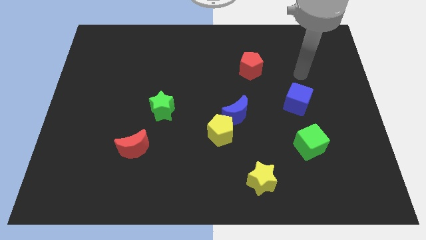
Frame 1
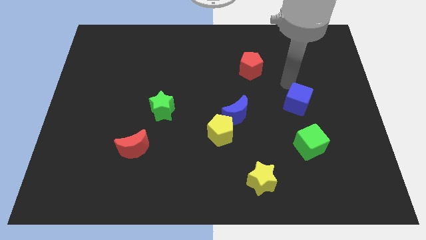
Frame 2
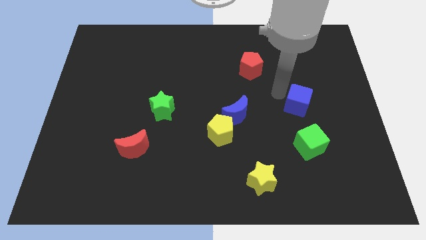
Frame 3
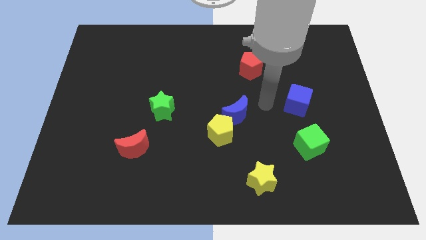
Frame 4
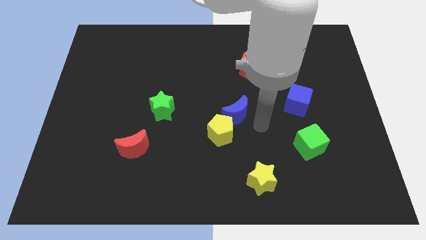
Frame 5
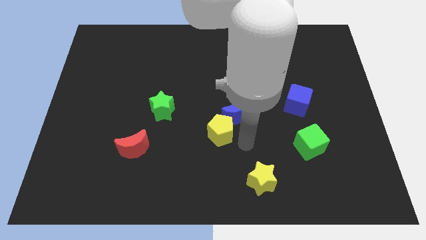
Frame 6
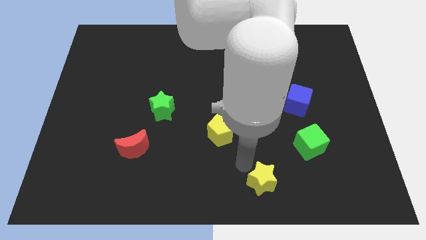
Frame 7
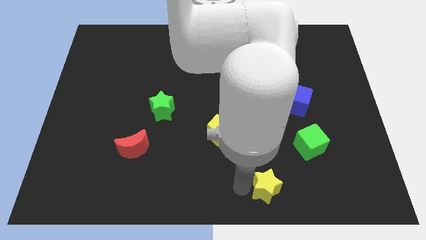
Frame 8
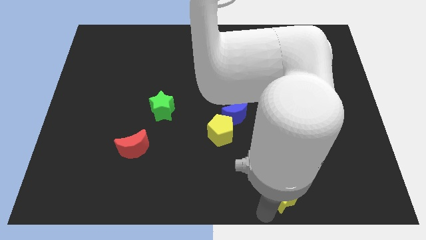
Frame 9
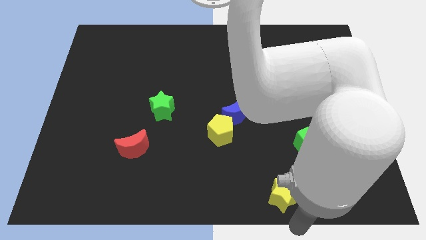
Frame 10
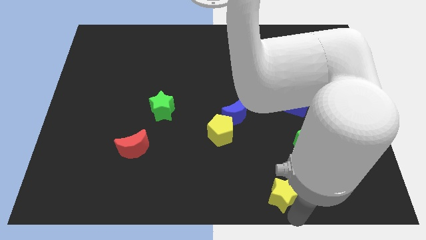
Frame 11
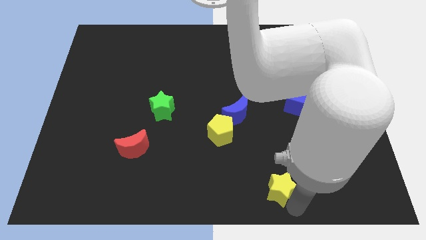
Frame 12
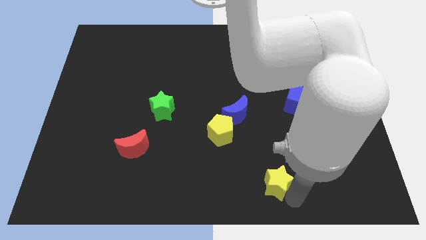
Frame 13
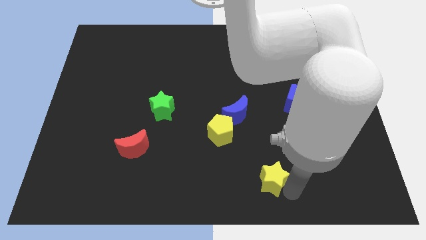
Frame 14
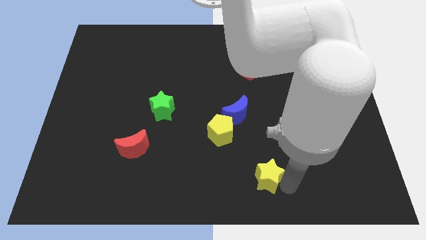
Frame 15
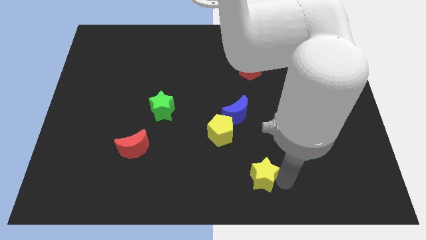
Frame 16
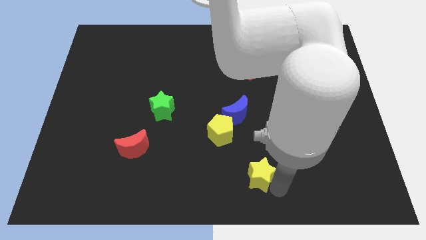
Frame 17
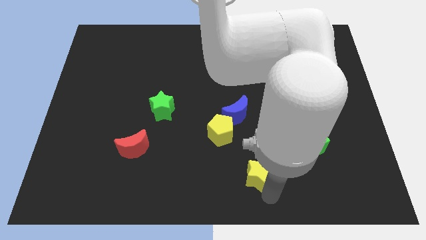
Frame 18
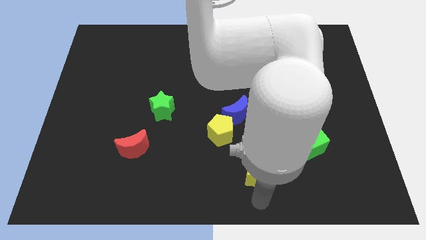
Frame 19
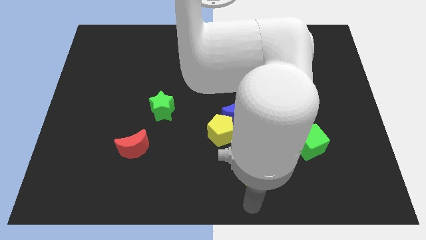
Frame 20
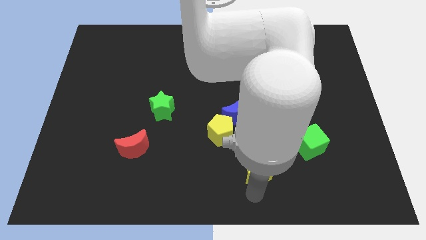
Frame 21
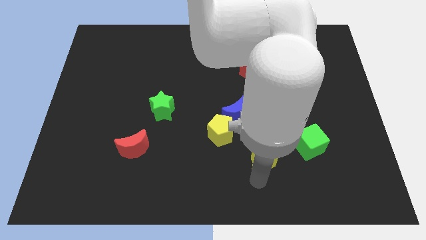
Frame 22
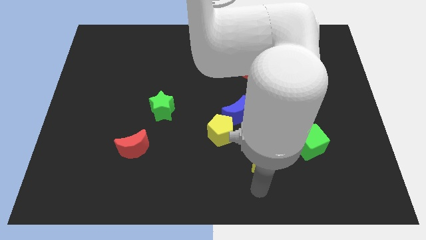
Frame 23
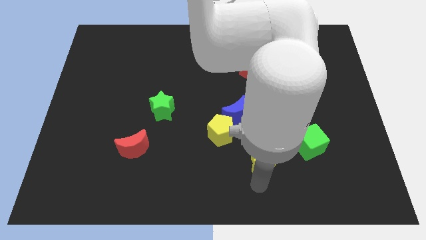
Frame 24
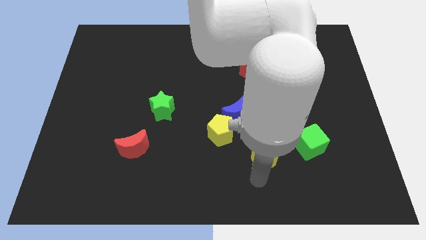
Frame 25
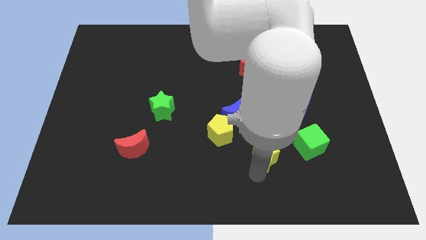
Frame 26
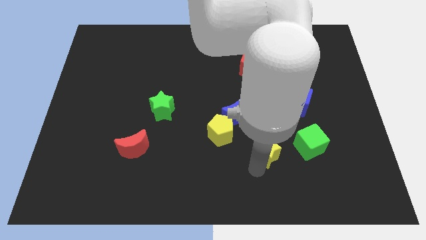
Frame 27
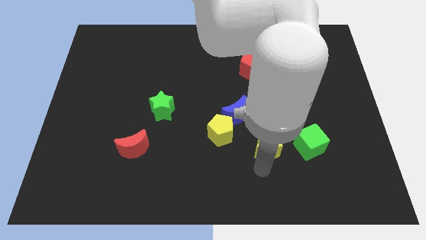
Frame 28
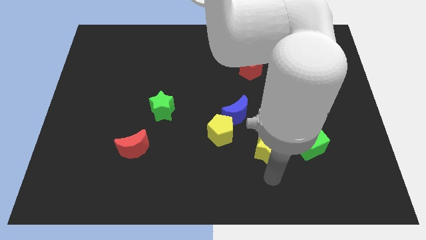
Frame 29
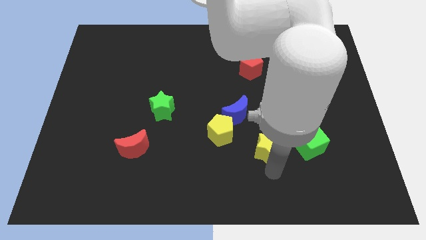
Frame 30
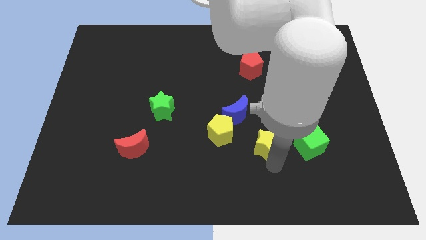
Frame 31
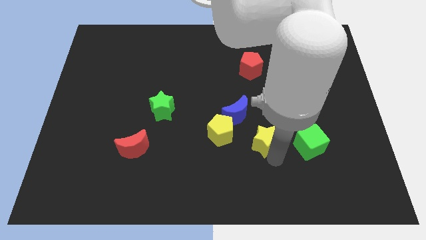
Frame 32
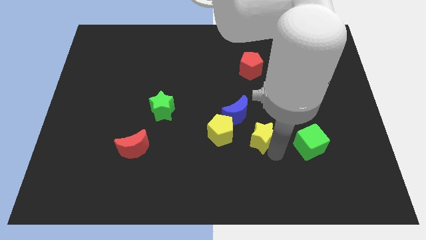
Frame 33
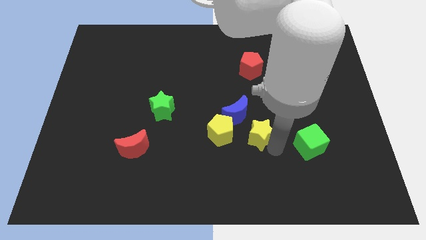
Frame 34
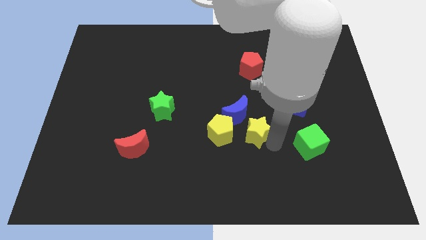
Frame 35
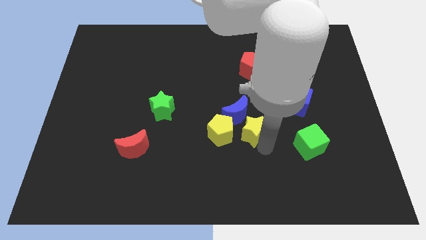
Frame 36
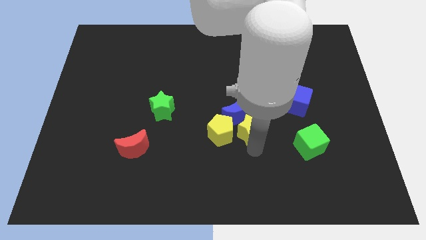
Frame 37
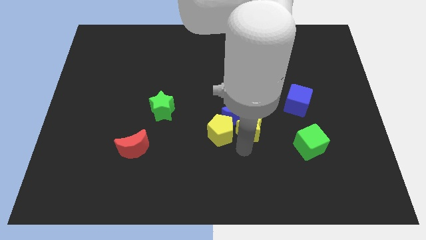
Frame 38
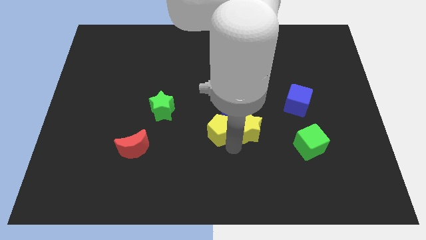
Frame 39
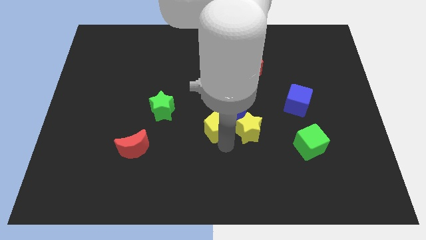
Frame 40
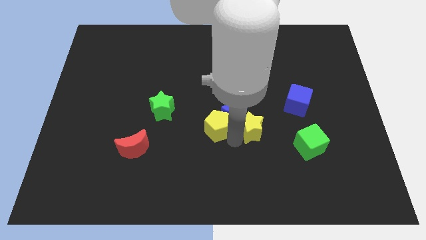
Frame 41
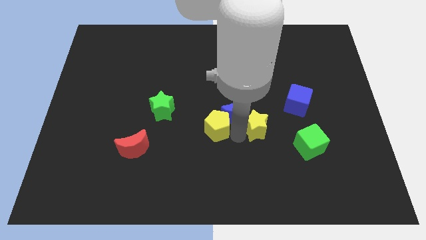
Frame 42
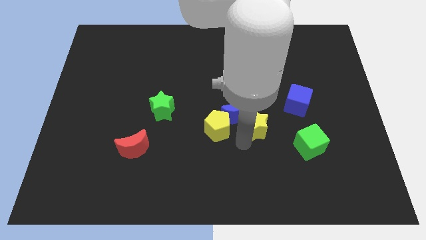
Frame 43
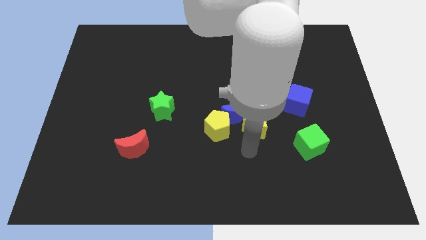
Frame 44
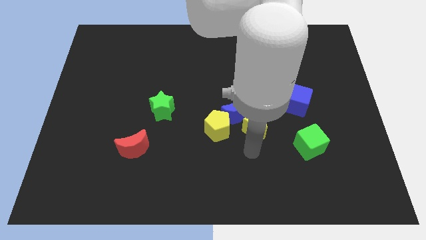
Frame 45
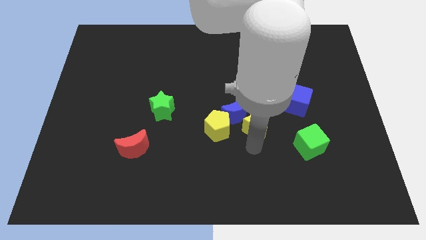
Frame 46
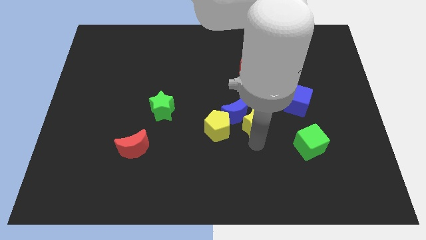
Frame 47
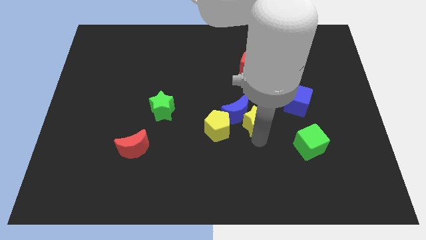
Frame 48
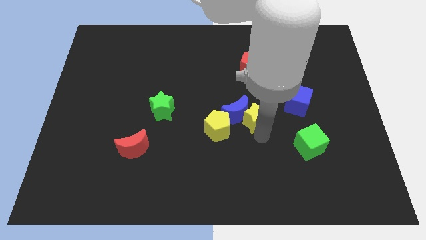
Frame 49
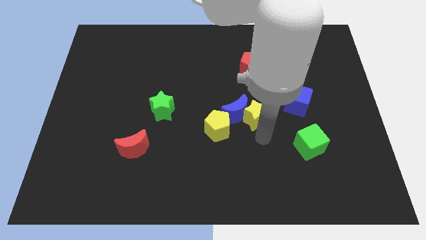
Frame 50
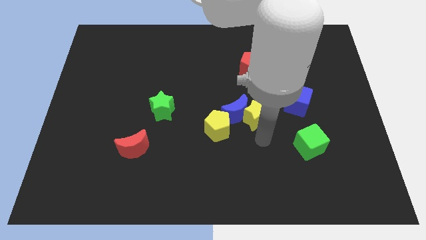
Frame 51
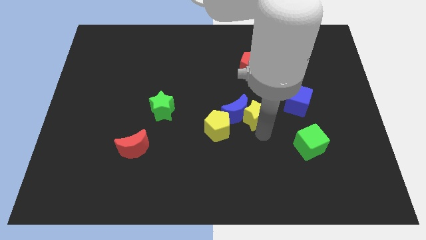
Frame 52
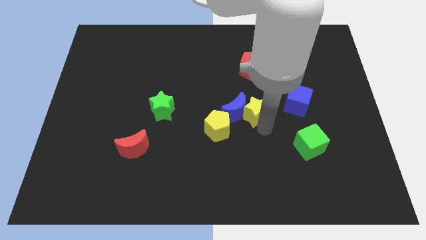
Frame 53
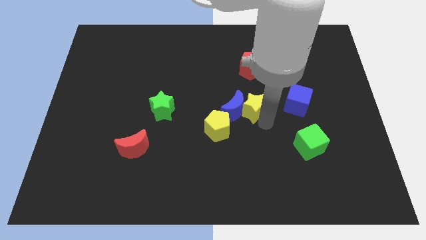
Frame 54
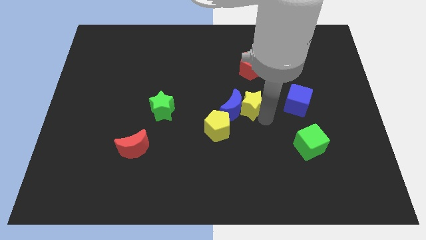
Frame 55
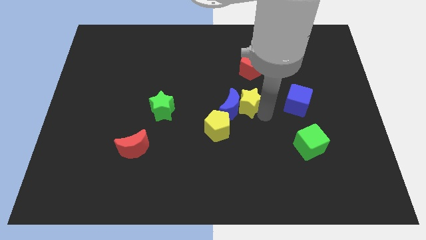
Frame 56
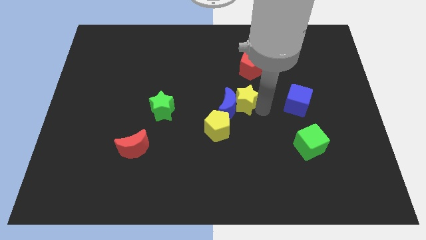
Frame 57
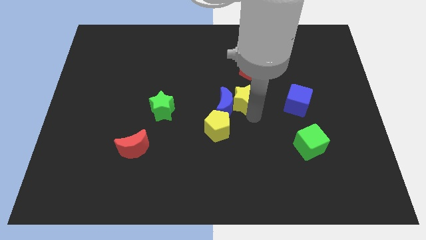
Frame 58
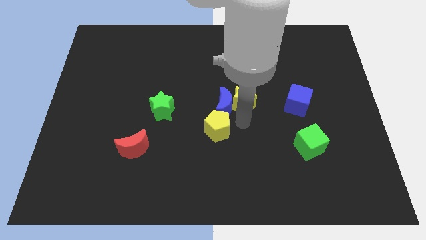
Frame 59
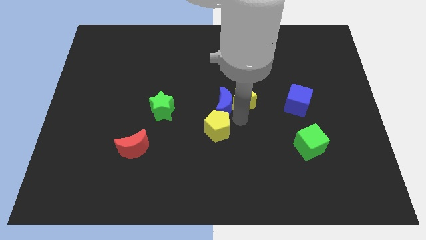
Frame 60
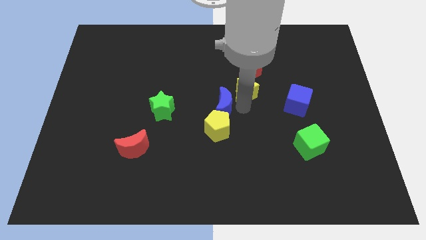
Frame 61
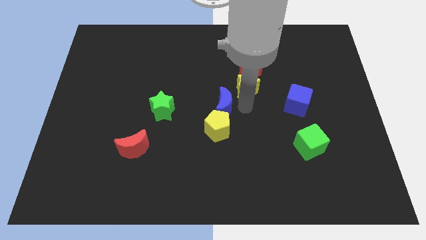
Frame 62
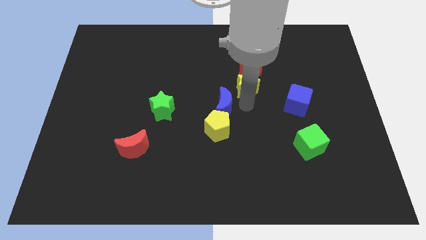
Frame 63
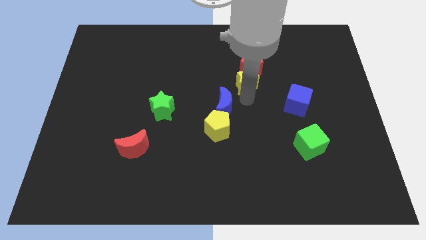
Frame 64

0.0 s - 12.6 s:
move the yellow star close to the red pentagon
